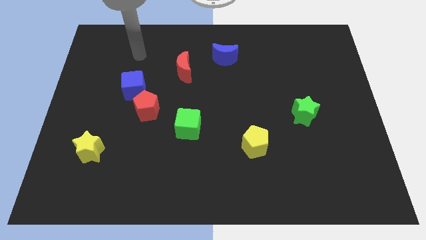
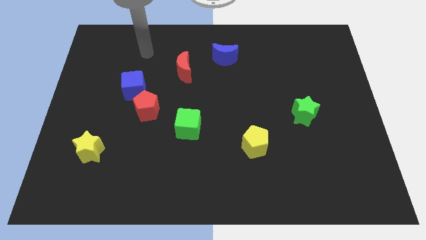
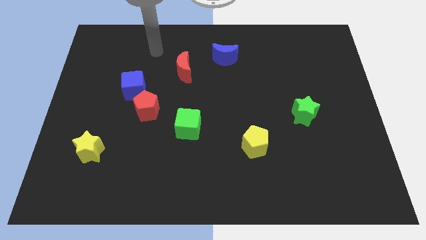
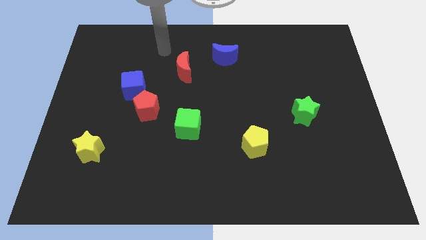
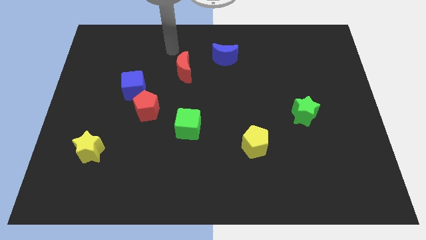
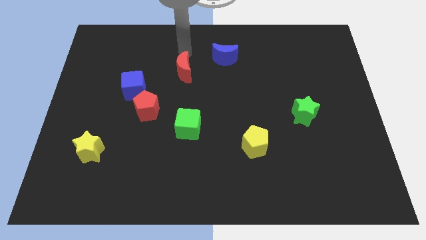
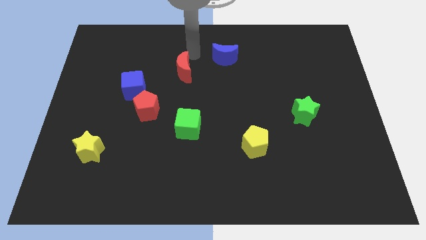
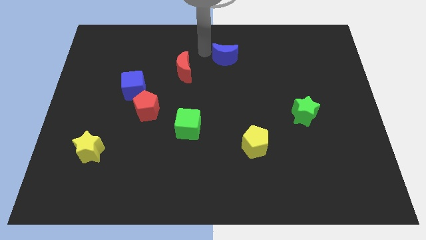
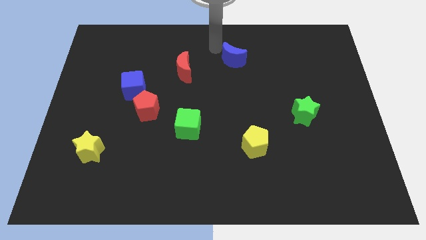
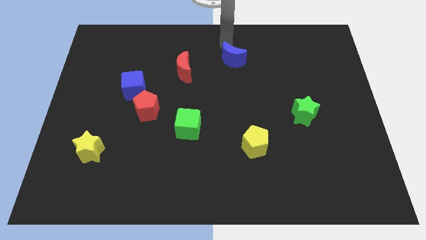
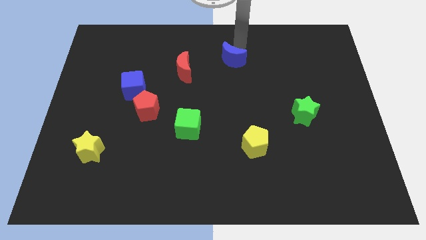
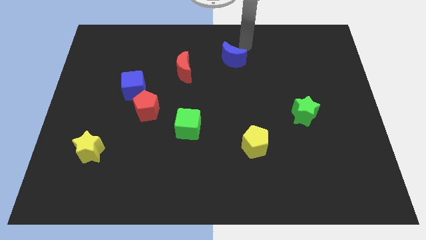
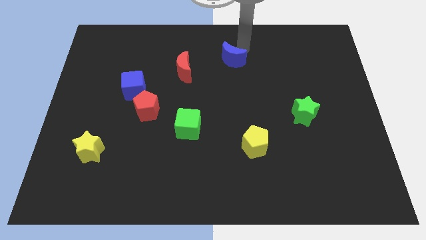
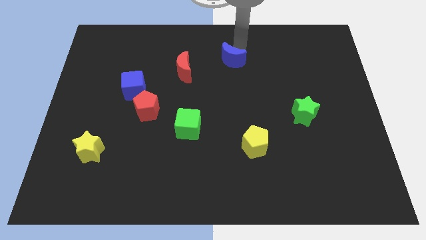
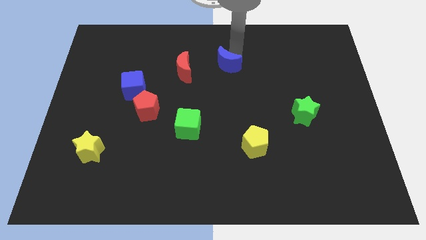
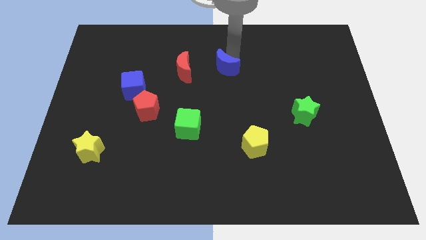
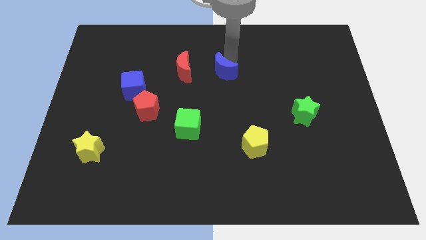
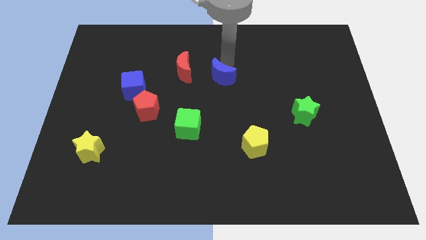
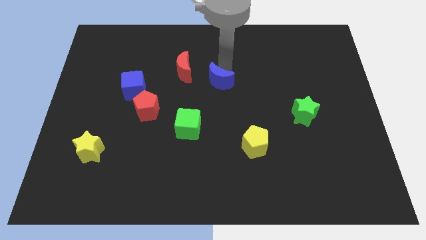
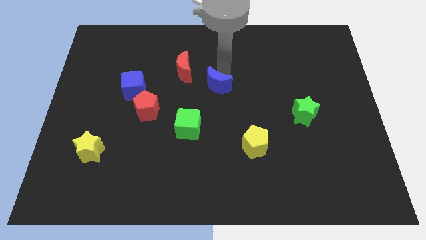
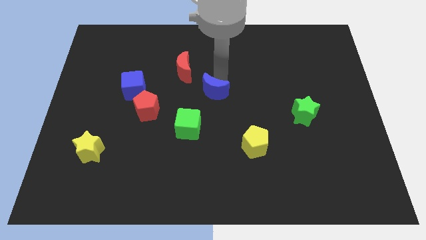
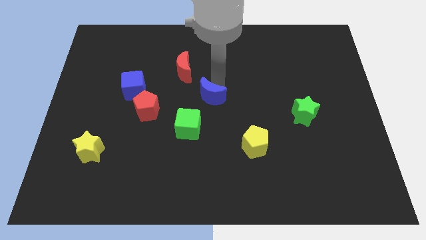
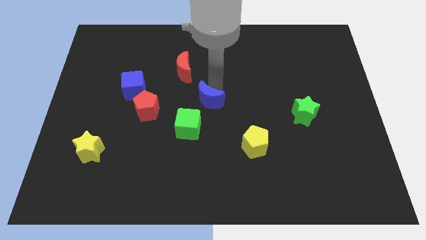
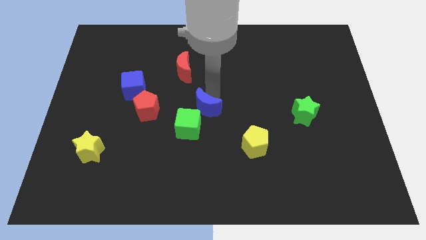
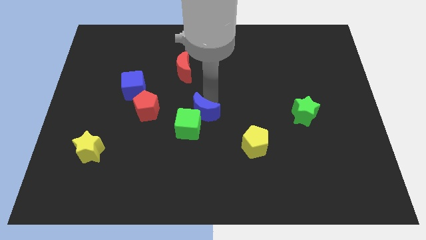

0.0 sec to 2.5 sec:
move the blue moon to the green cube

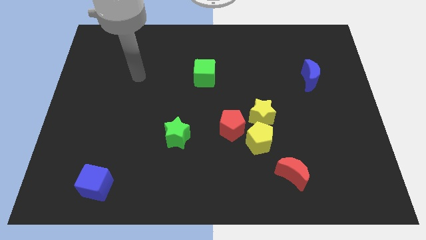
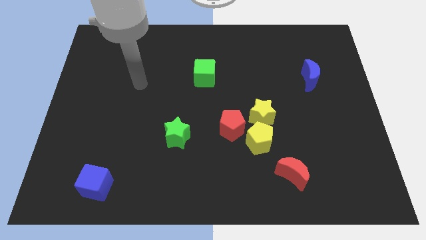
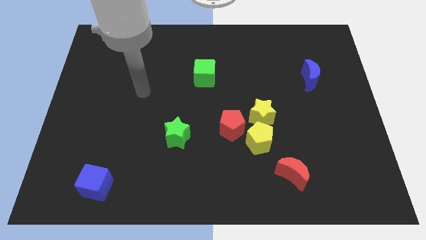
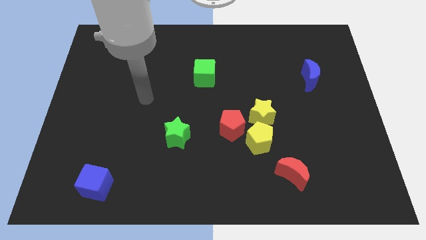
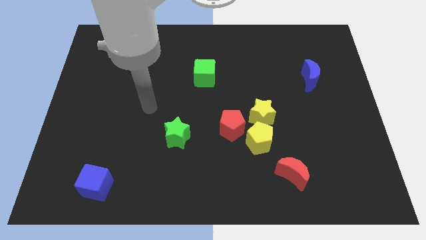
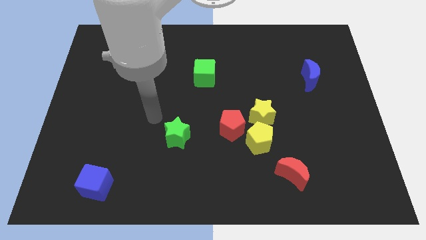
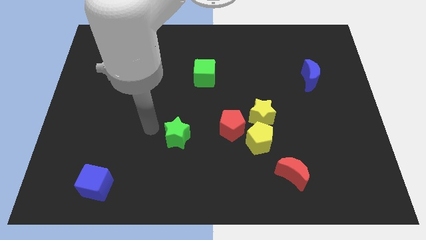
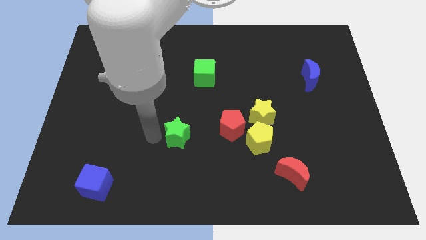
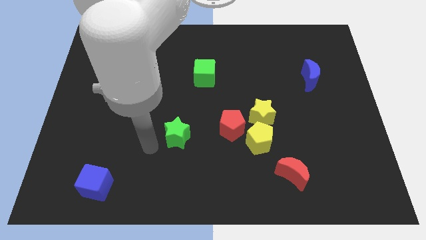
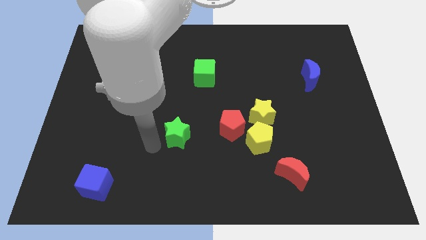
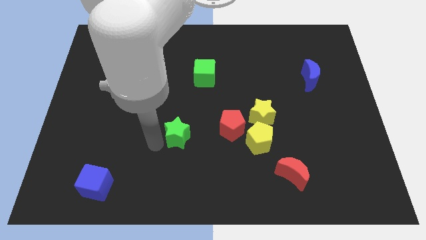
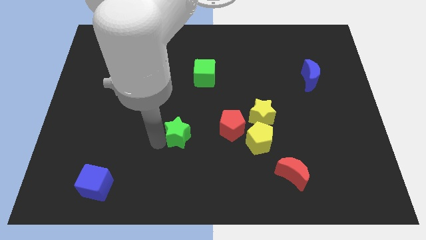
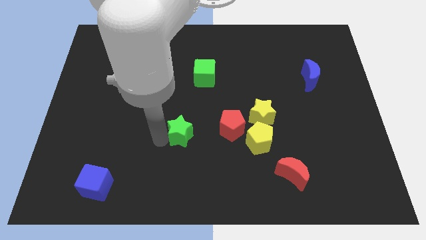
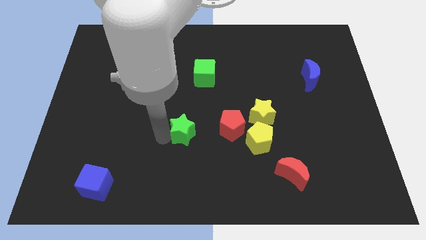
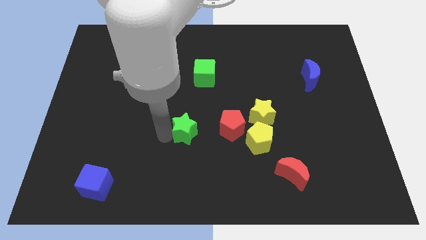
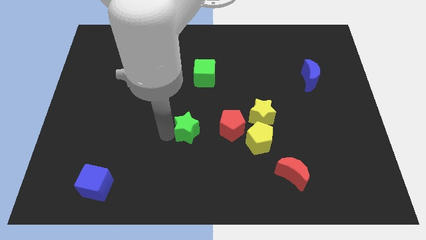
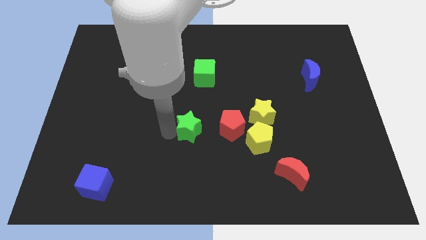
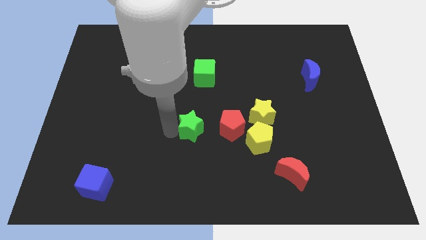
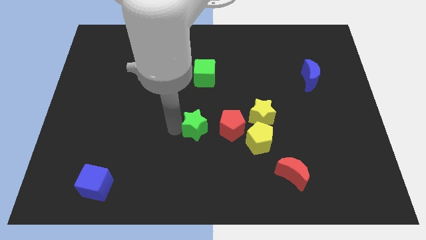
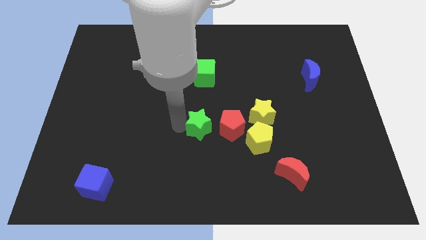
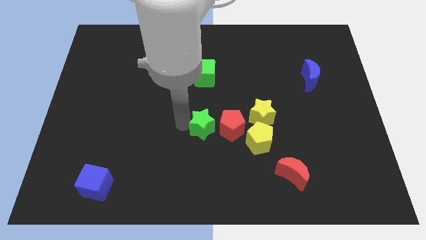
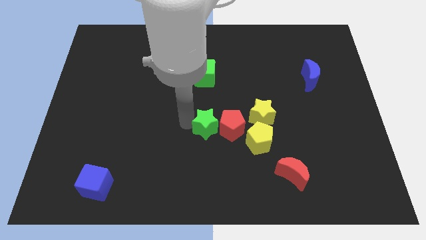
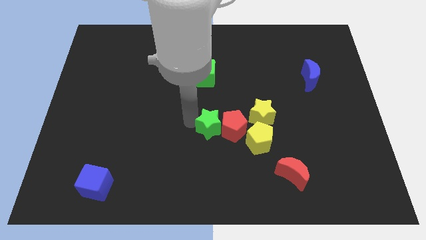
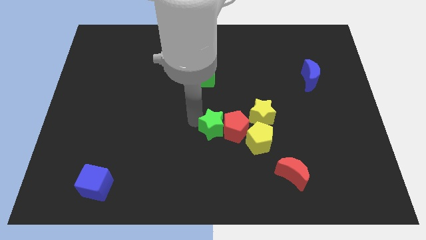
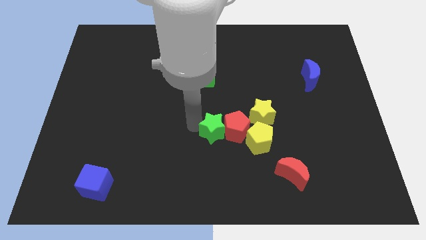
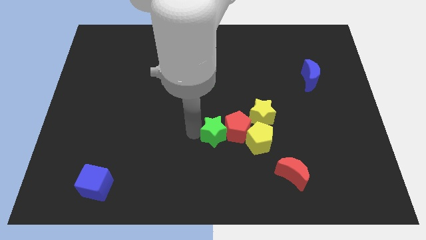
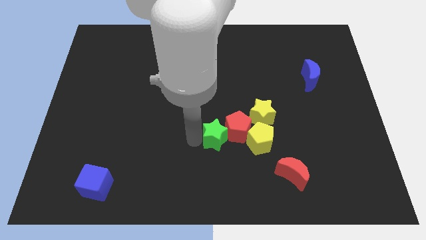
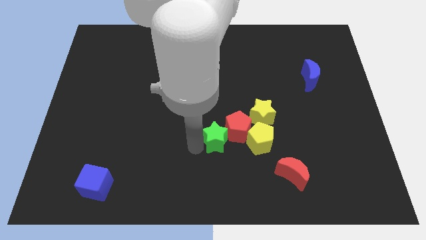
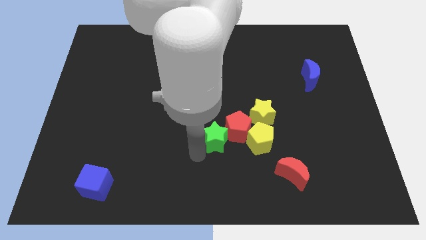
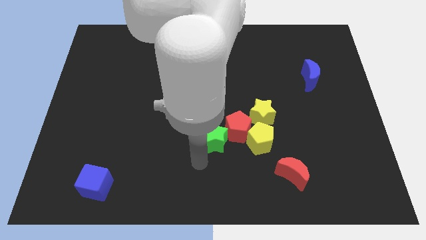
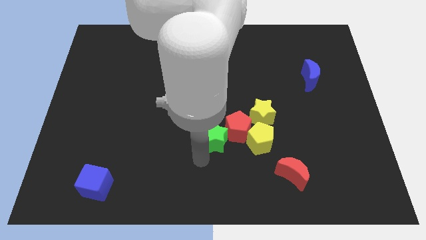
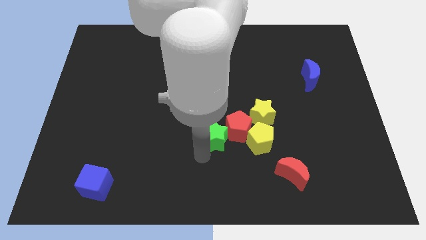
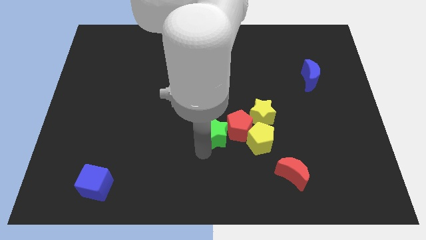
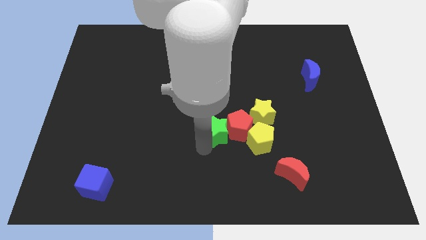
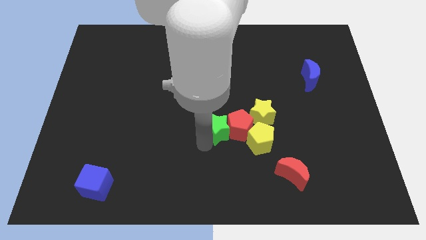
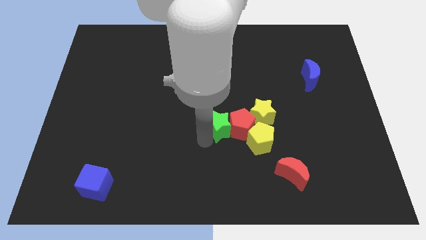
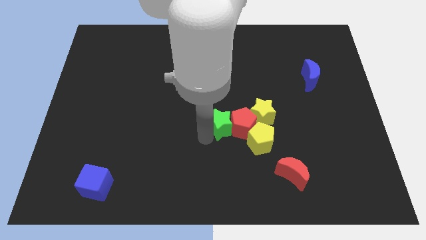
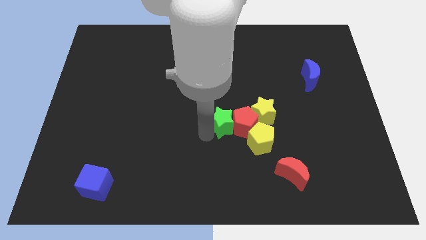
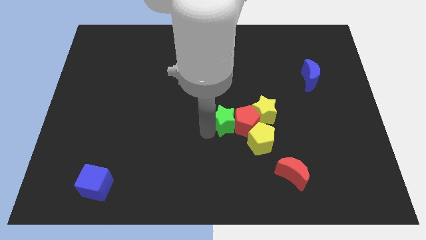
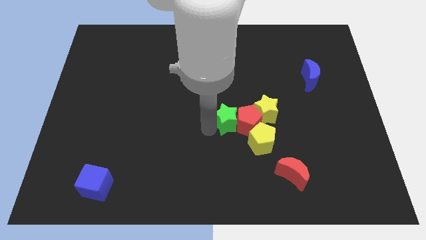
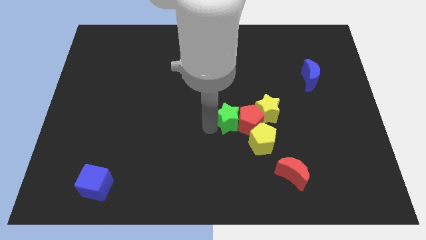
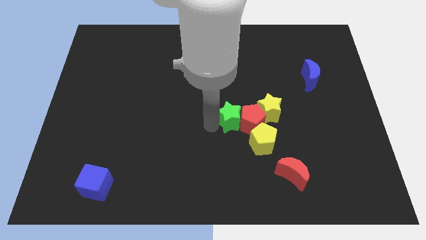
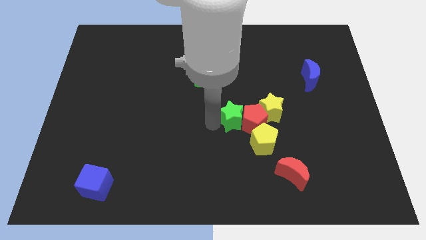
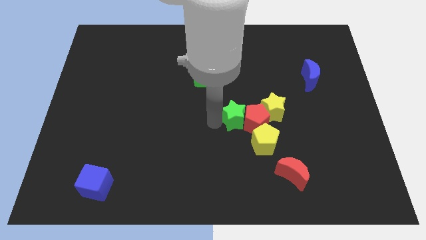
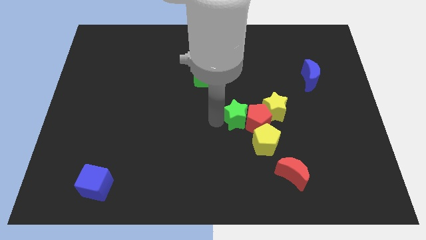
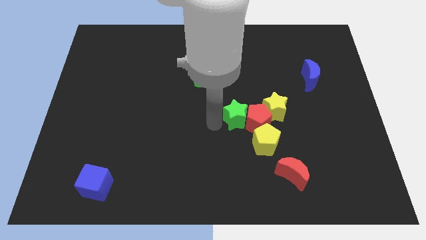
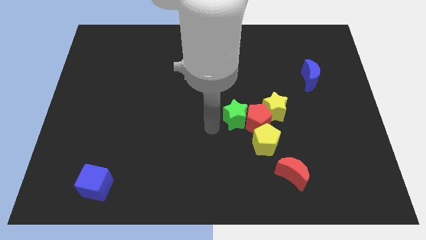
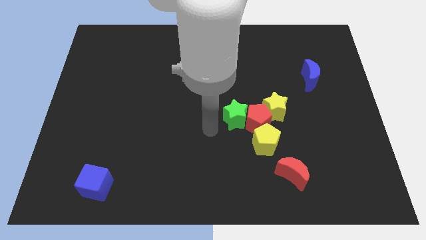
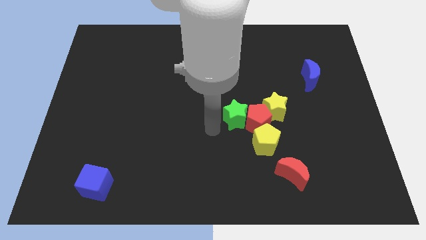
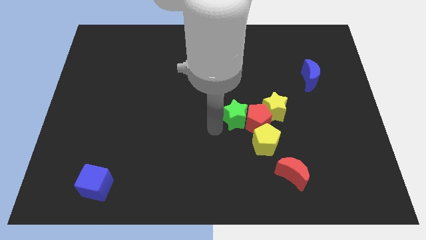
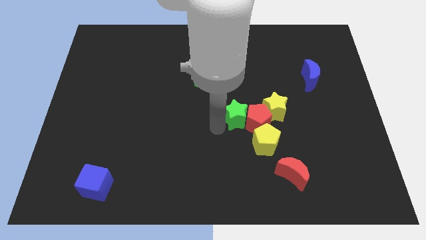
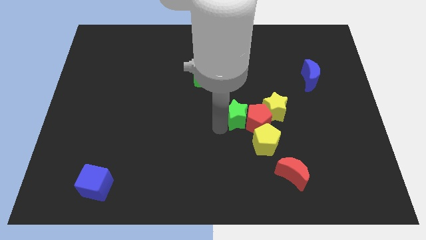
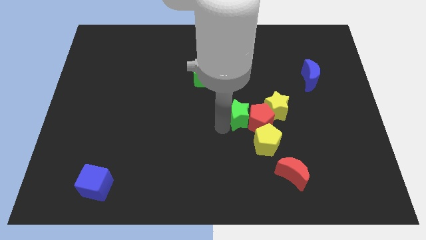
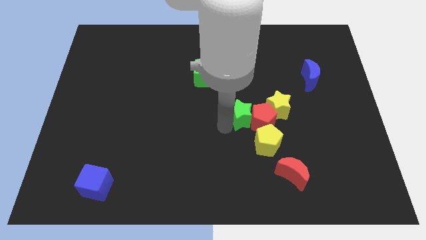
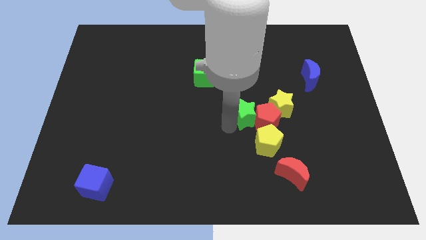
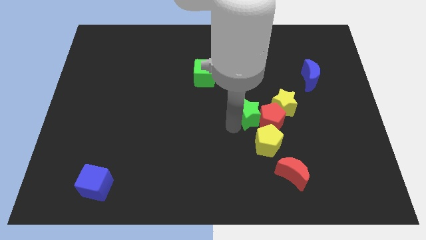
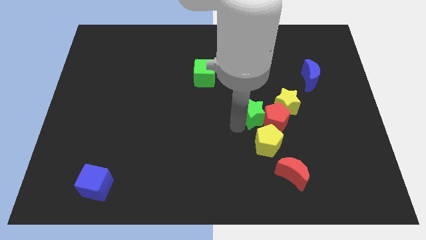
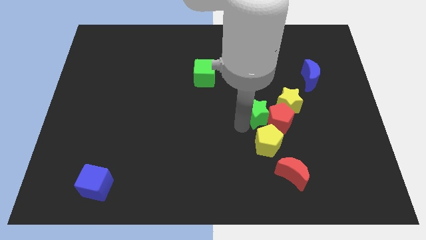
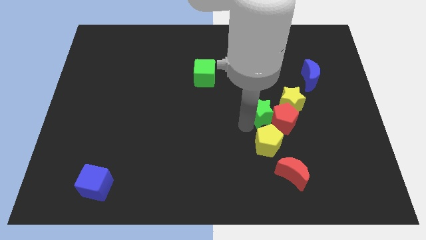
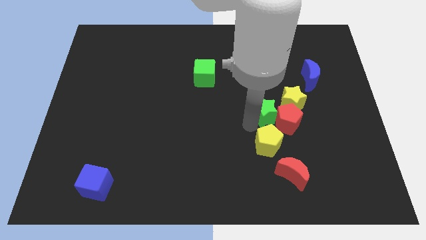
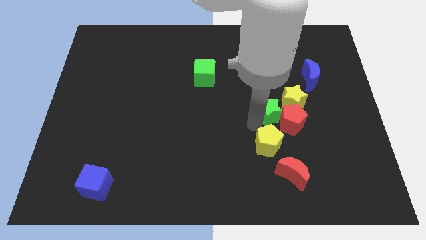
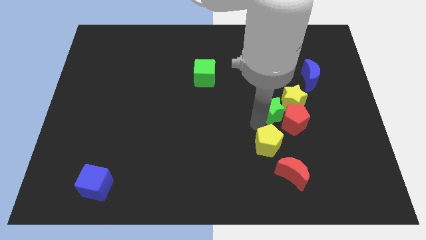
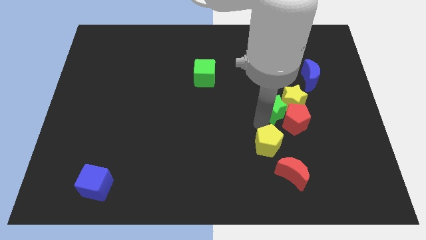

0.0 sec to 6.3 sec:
slide the green star towards the yellow star
